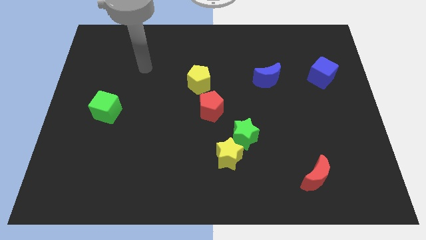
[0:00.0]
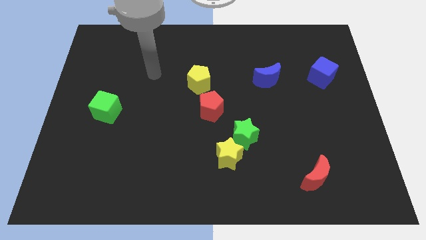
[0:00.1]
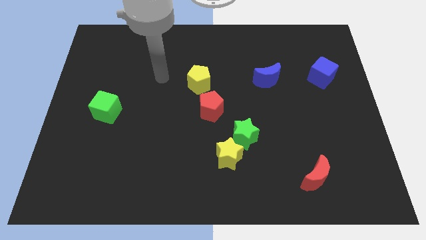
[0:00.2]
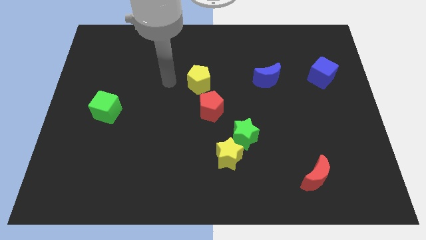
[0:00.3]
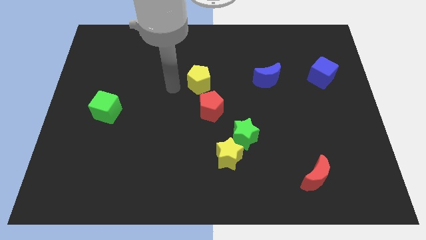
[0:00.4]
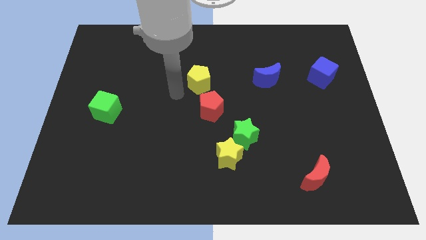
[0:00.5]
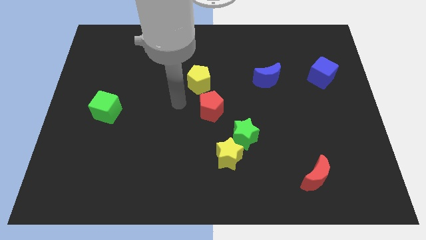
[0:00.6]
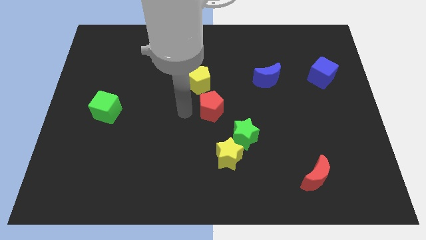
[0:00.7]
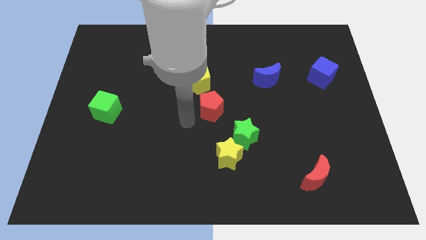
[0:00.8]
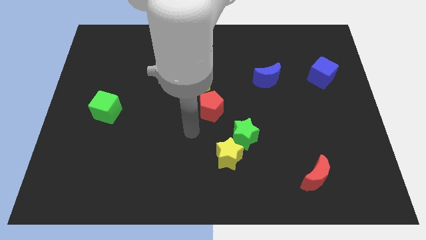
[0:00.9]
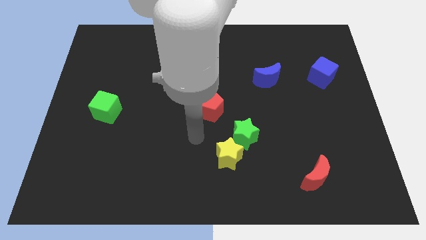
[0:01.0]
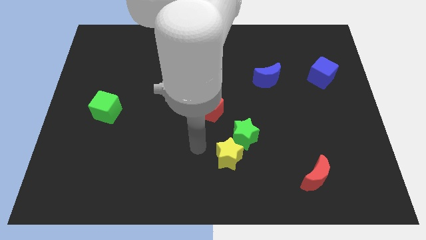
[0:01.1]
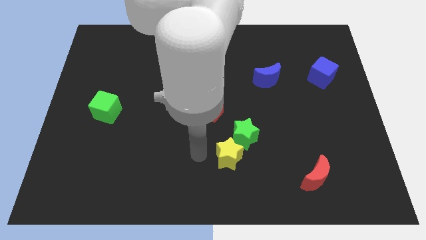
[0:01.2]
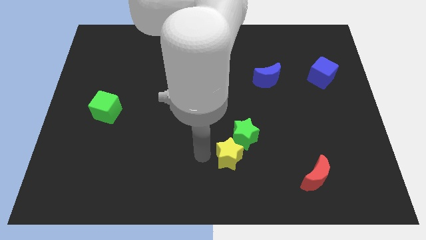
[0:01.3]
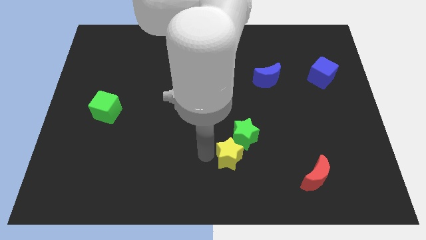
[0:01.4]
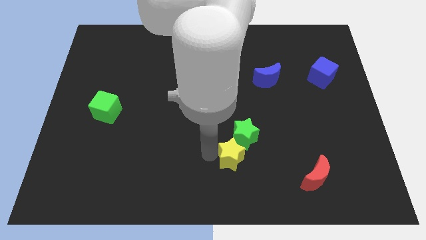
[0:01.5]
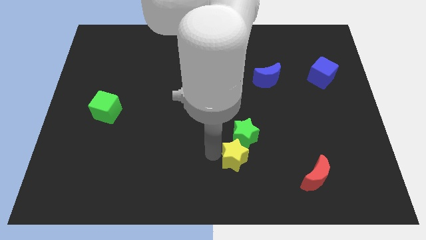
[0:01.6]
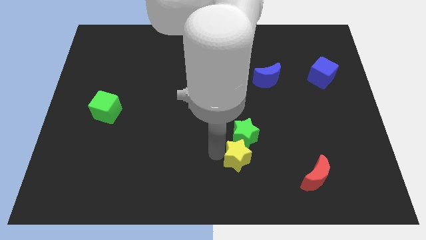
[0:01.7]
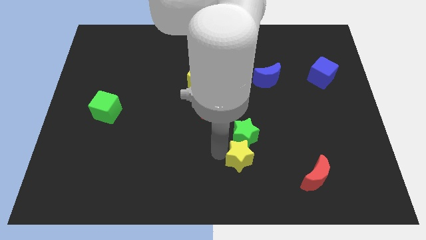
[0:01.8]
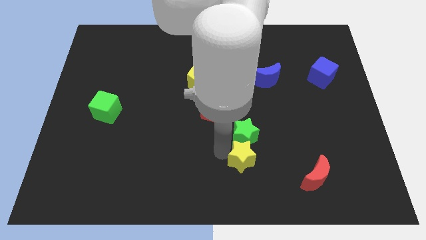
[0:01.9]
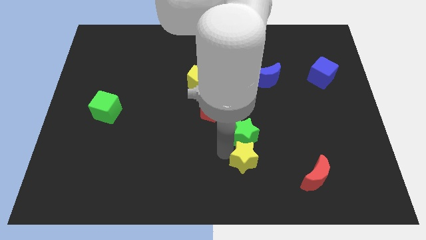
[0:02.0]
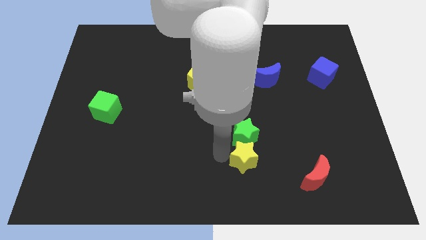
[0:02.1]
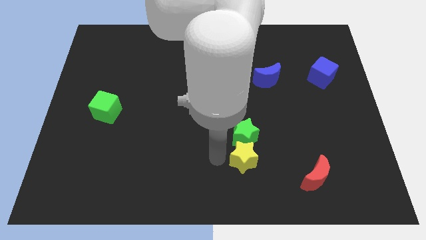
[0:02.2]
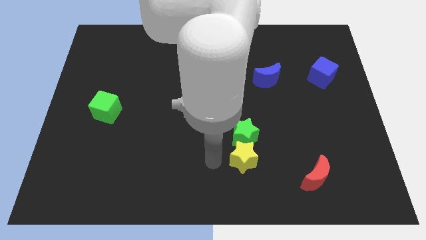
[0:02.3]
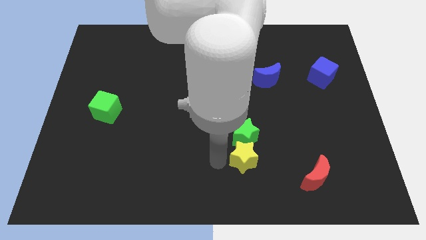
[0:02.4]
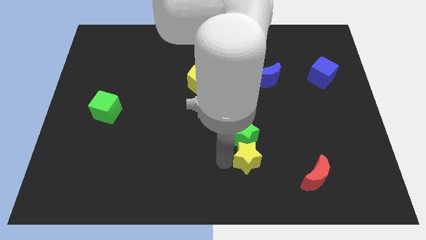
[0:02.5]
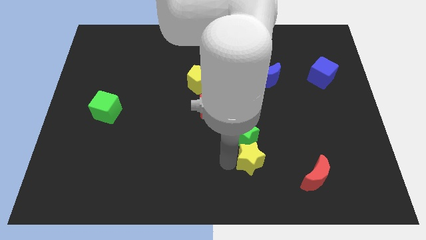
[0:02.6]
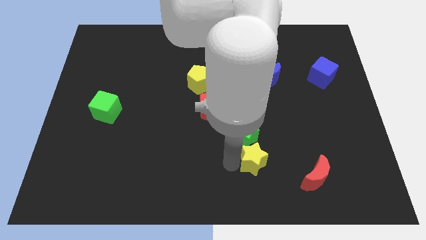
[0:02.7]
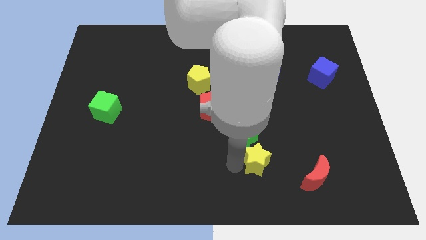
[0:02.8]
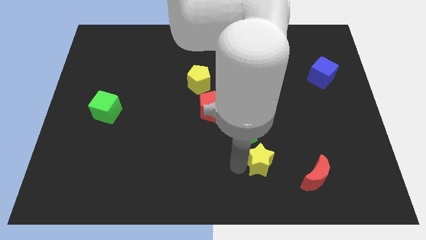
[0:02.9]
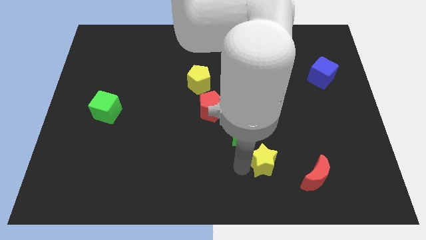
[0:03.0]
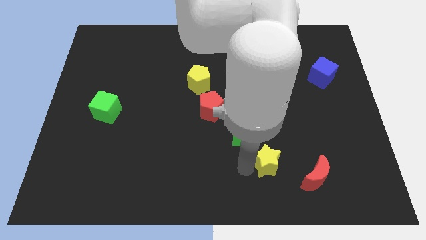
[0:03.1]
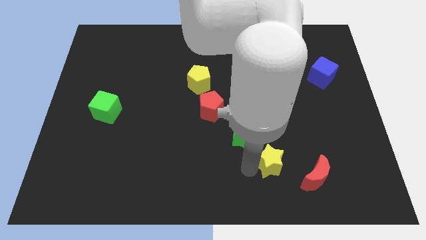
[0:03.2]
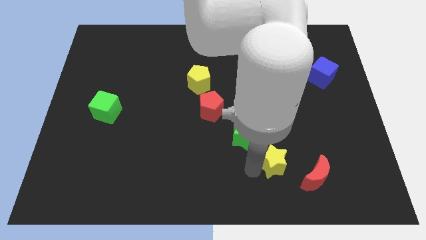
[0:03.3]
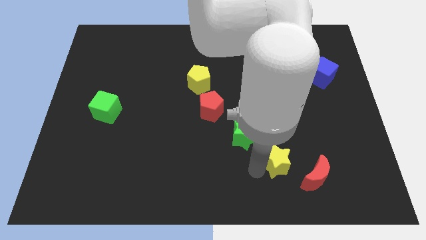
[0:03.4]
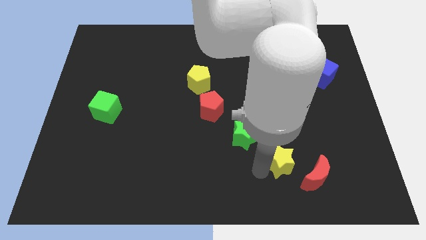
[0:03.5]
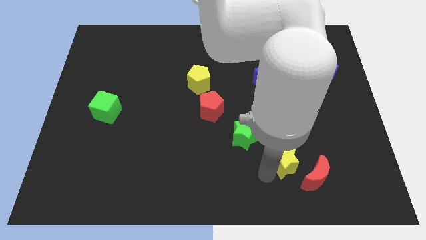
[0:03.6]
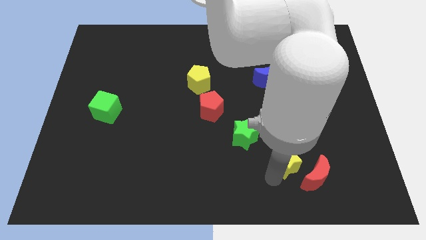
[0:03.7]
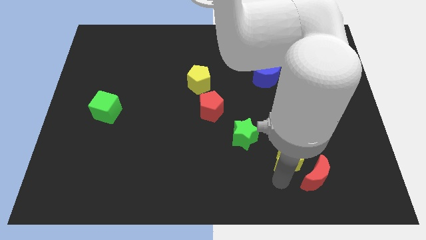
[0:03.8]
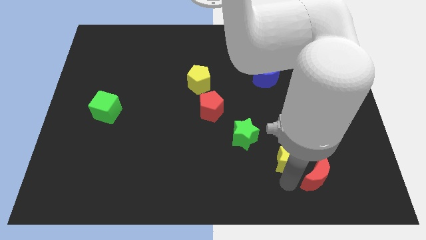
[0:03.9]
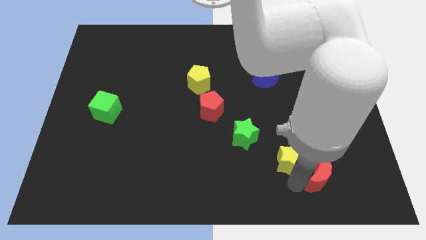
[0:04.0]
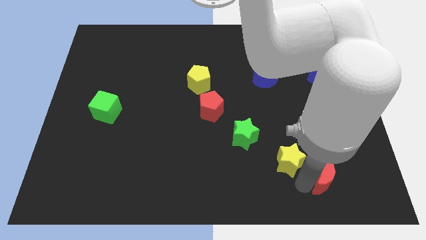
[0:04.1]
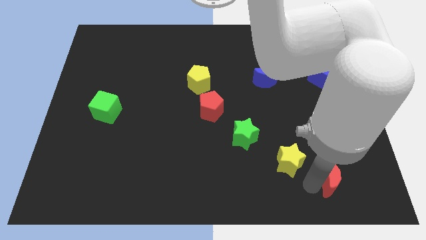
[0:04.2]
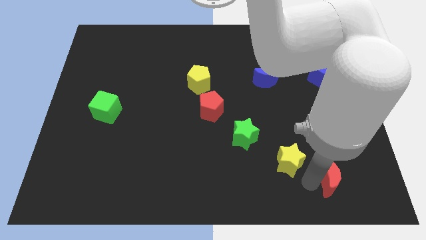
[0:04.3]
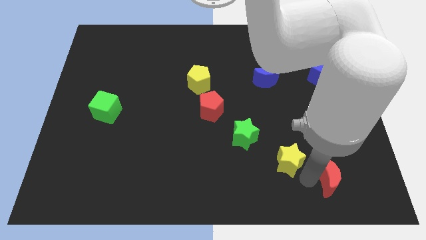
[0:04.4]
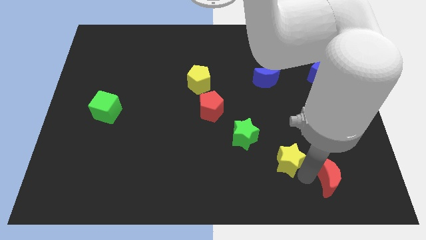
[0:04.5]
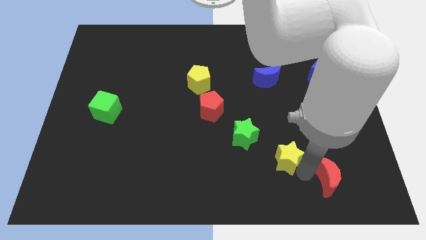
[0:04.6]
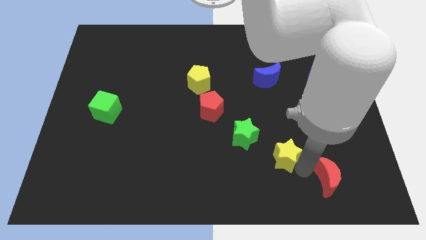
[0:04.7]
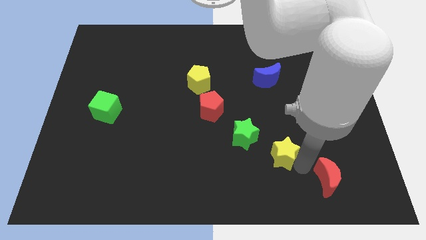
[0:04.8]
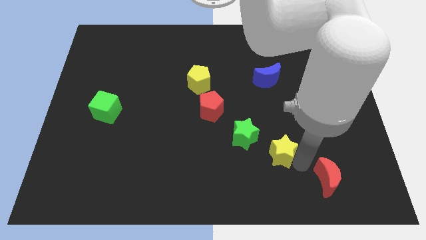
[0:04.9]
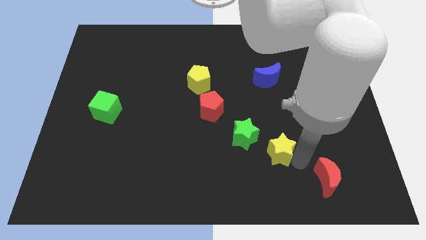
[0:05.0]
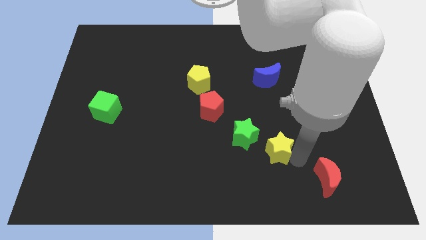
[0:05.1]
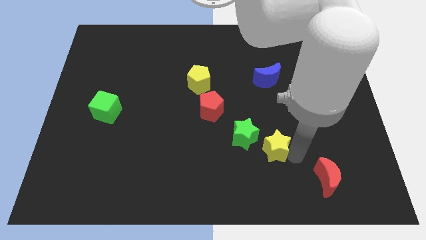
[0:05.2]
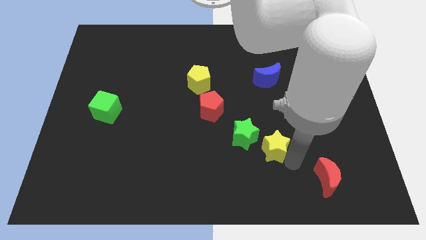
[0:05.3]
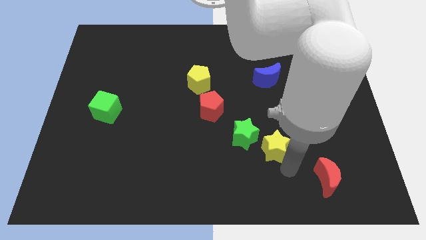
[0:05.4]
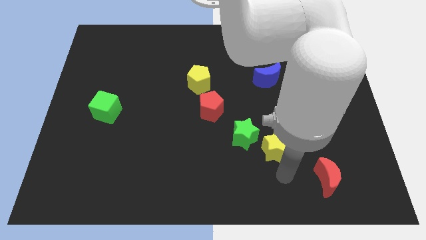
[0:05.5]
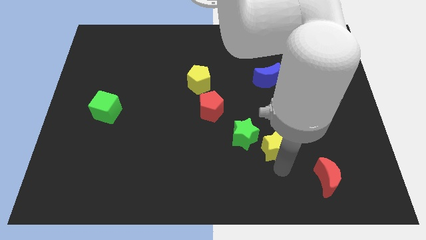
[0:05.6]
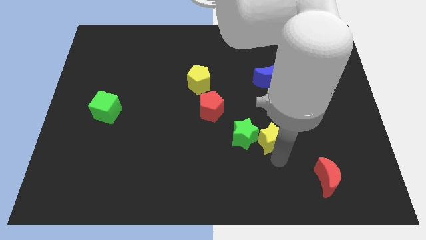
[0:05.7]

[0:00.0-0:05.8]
put the yellow star to the top right of the green star

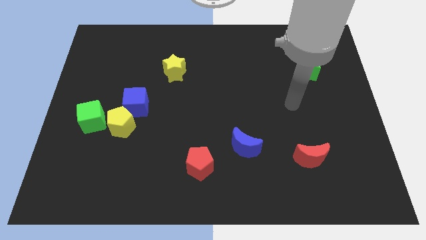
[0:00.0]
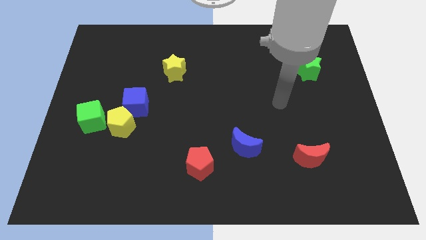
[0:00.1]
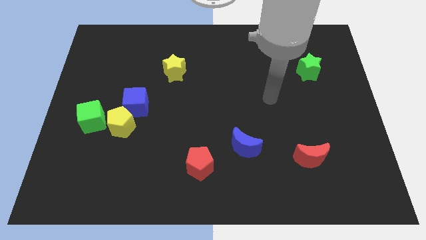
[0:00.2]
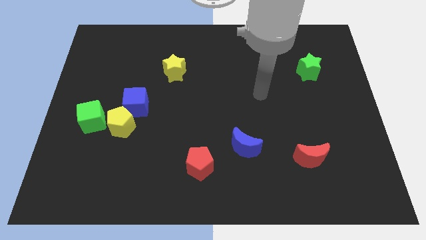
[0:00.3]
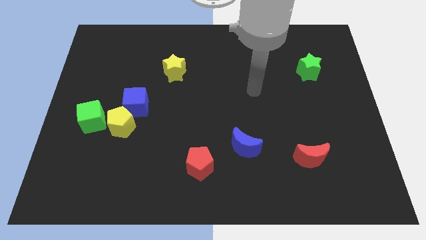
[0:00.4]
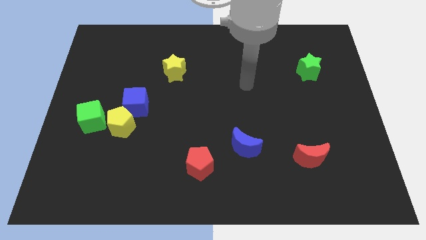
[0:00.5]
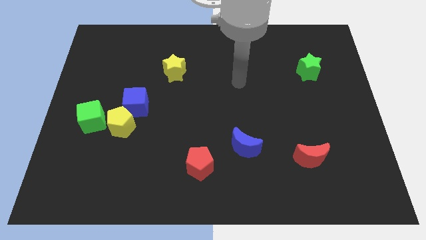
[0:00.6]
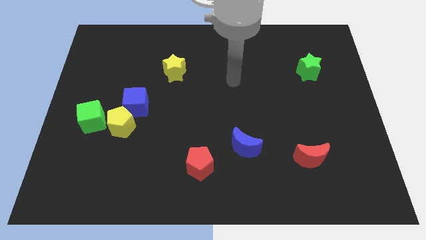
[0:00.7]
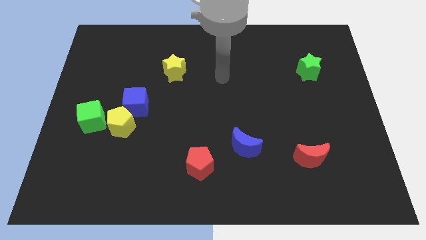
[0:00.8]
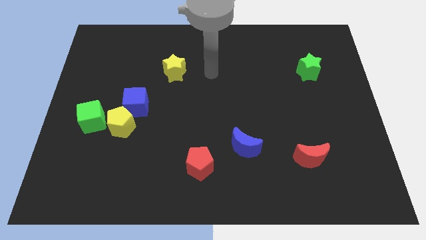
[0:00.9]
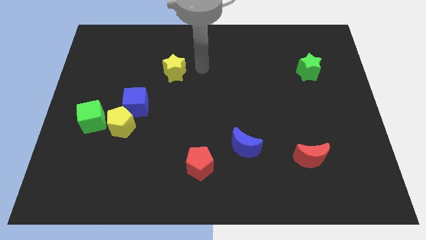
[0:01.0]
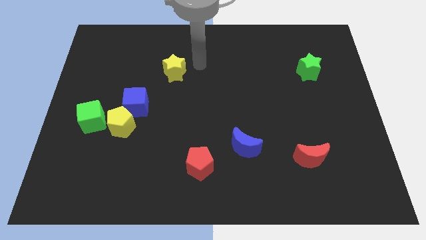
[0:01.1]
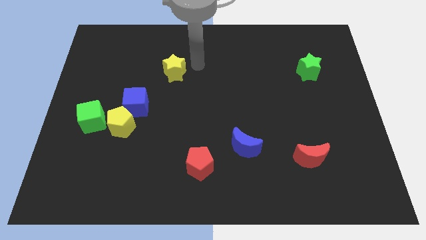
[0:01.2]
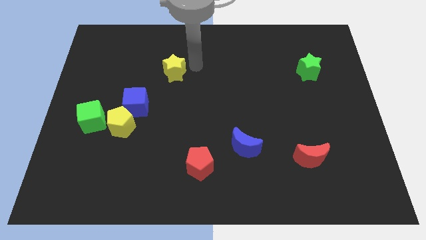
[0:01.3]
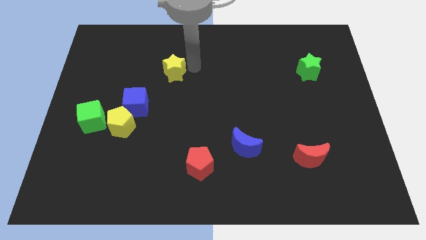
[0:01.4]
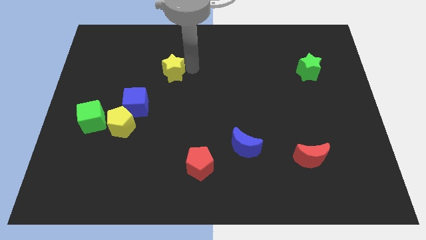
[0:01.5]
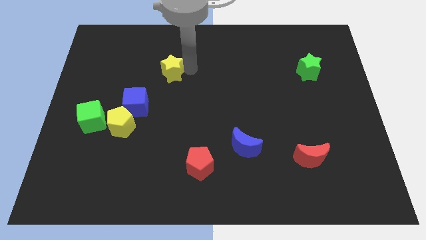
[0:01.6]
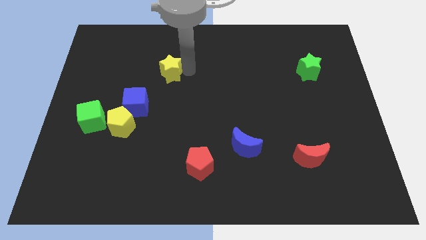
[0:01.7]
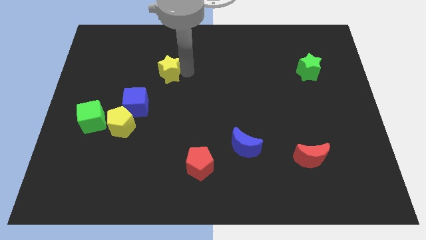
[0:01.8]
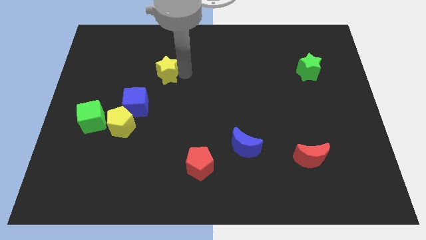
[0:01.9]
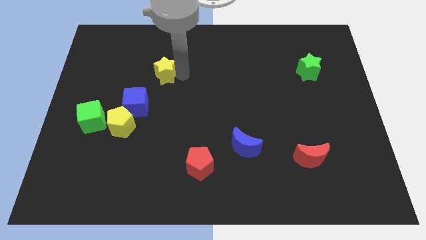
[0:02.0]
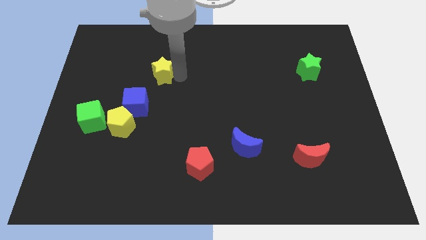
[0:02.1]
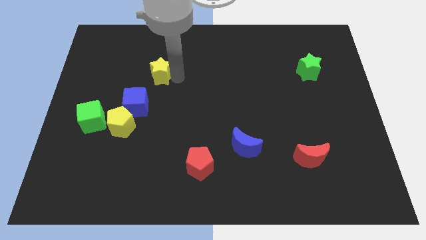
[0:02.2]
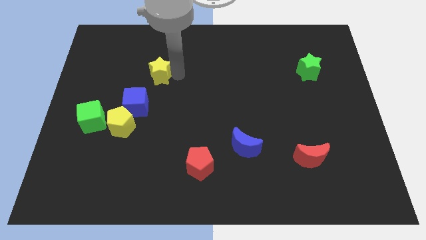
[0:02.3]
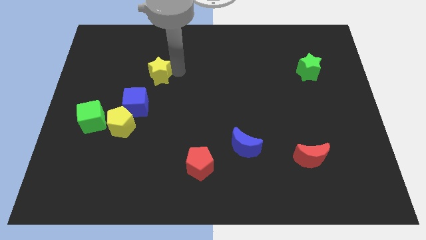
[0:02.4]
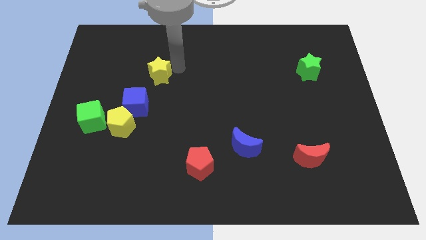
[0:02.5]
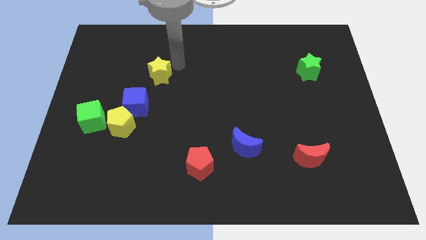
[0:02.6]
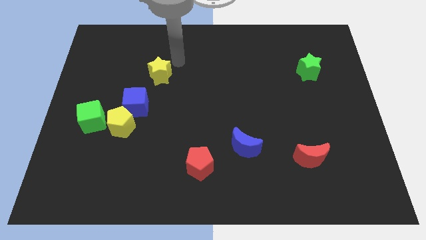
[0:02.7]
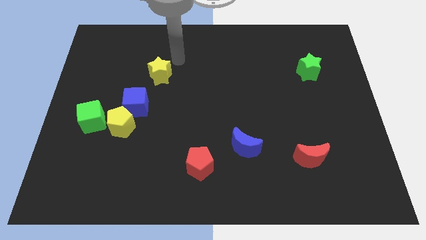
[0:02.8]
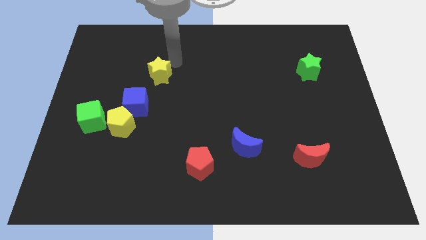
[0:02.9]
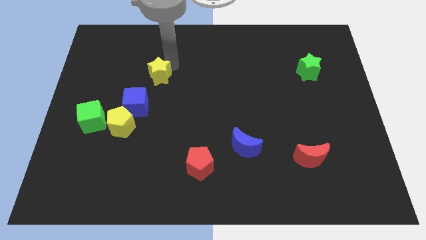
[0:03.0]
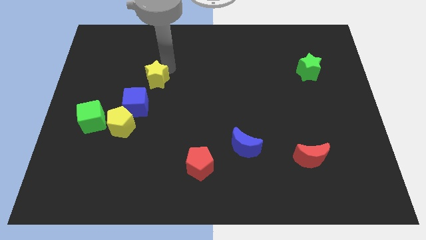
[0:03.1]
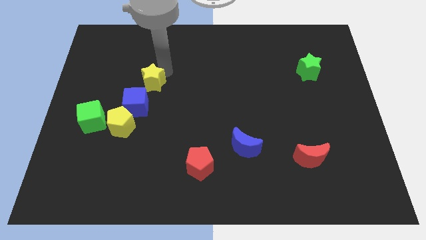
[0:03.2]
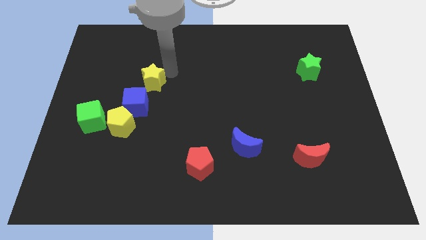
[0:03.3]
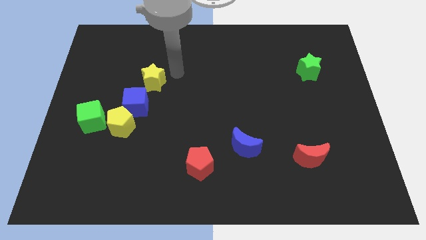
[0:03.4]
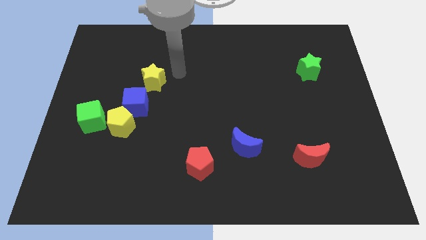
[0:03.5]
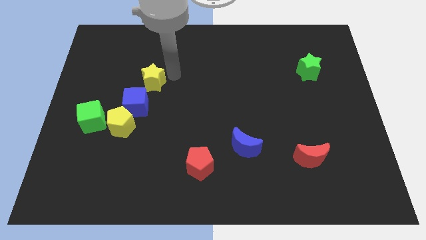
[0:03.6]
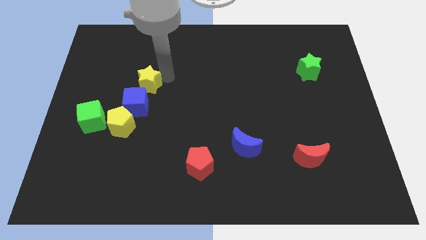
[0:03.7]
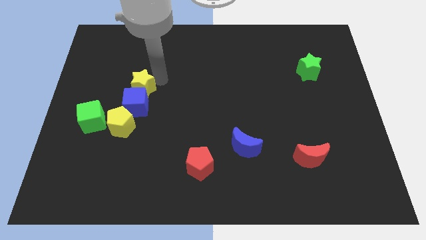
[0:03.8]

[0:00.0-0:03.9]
move the yellow star above the yellow pentagon
